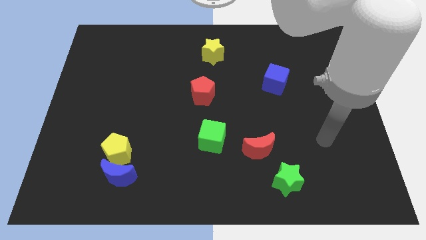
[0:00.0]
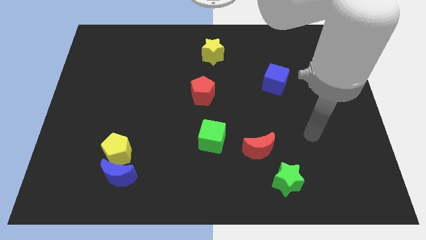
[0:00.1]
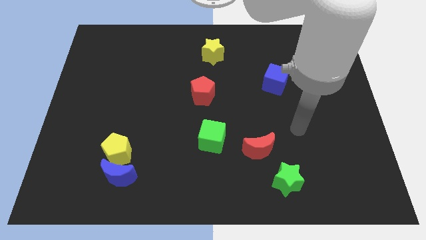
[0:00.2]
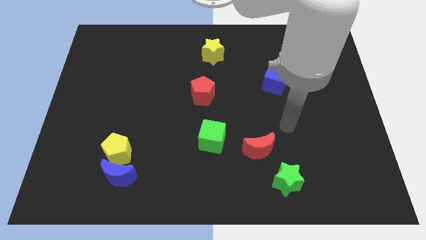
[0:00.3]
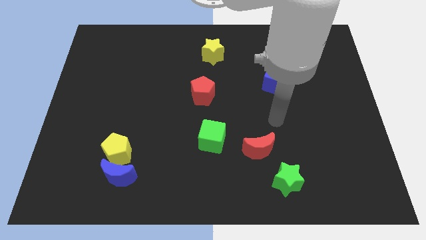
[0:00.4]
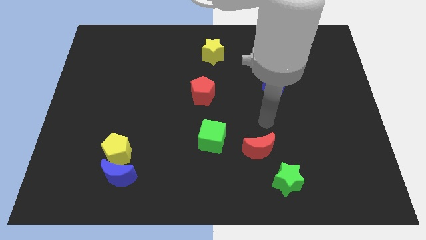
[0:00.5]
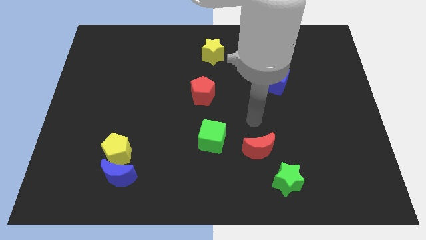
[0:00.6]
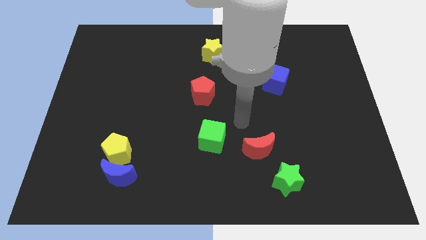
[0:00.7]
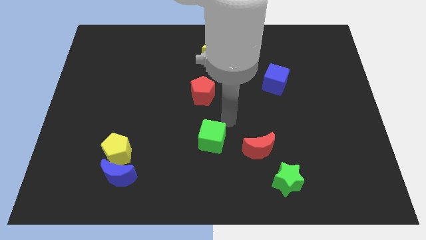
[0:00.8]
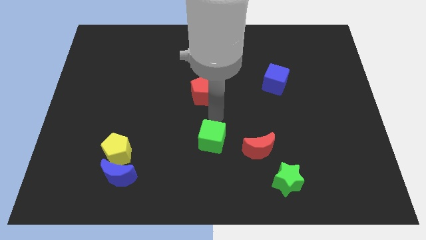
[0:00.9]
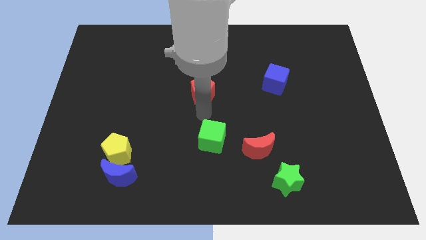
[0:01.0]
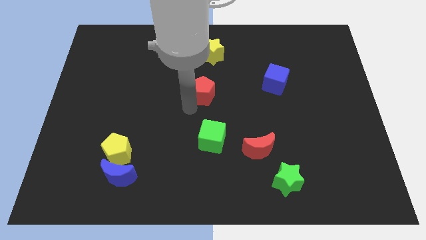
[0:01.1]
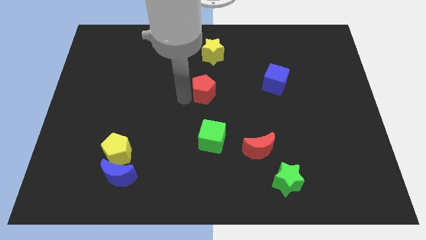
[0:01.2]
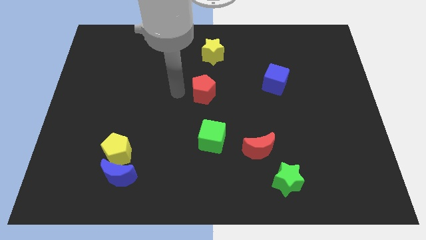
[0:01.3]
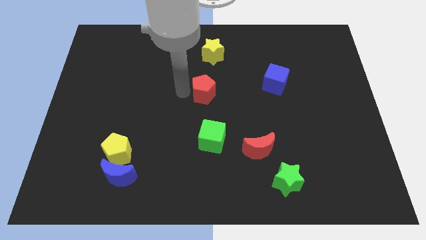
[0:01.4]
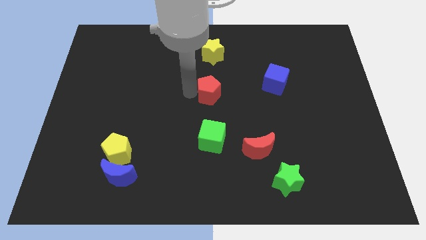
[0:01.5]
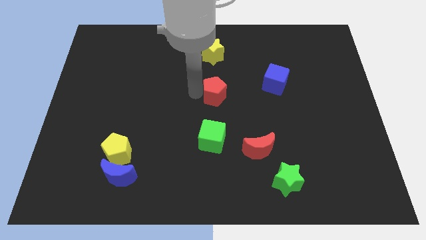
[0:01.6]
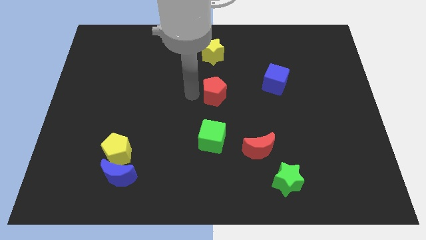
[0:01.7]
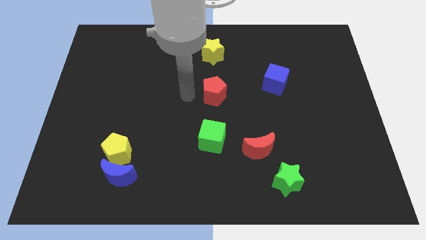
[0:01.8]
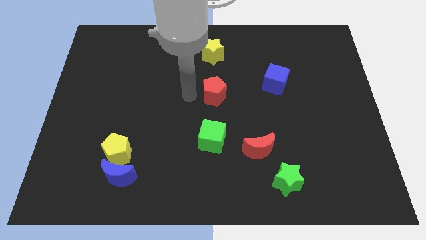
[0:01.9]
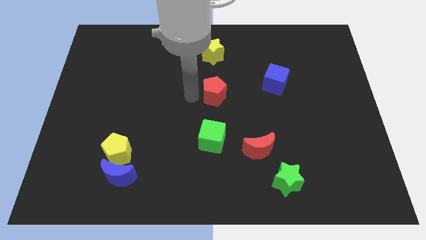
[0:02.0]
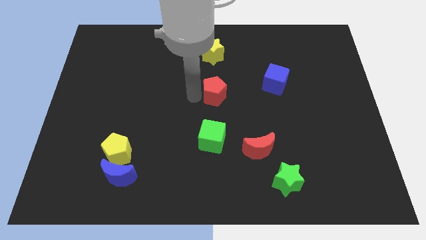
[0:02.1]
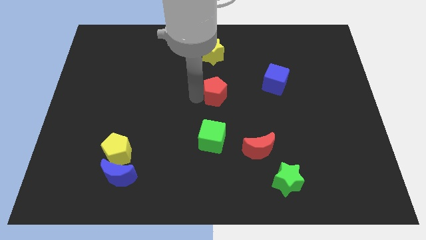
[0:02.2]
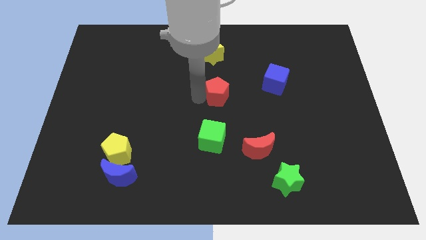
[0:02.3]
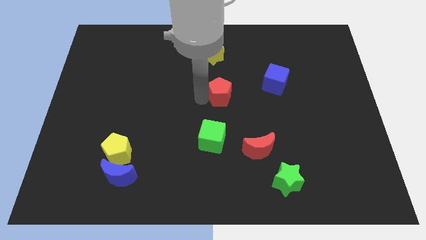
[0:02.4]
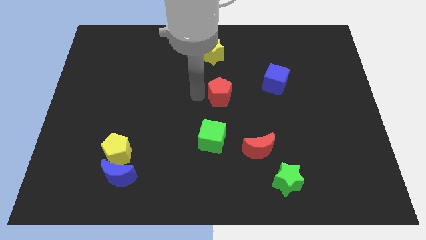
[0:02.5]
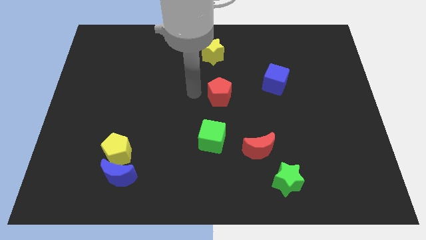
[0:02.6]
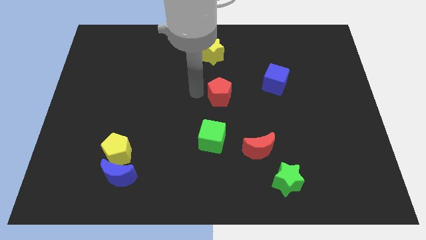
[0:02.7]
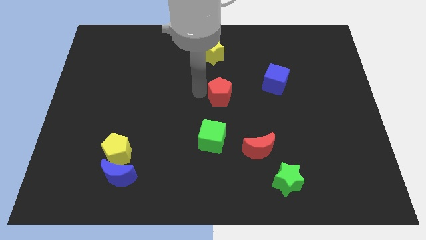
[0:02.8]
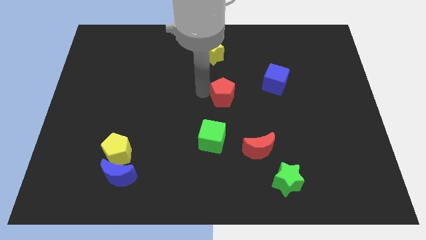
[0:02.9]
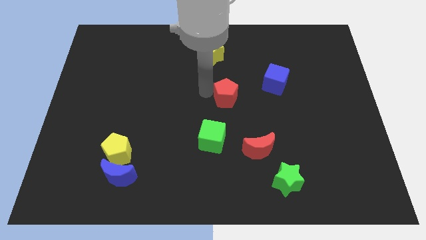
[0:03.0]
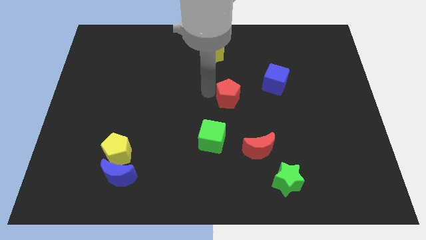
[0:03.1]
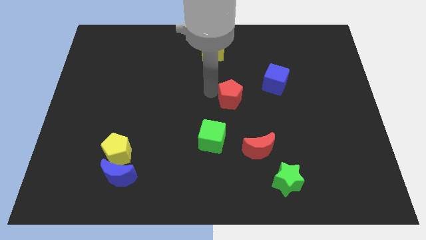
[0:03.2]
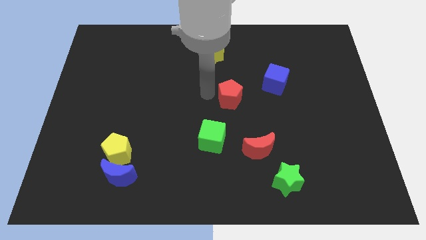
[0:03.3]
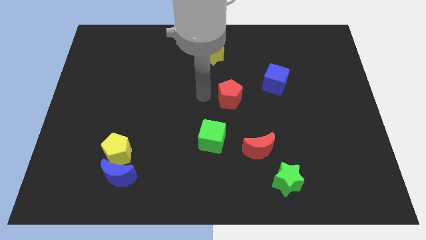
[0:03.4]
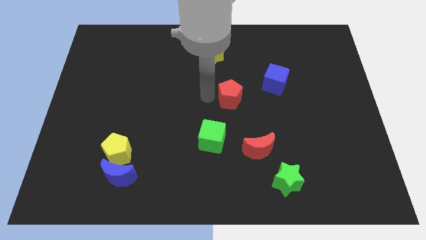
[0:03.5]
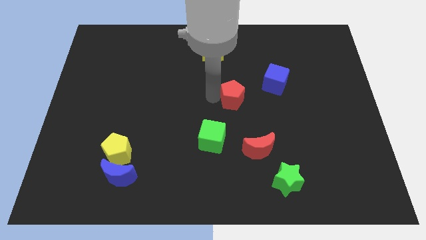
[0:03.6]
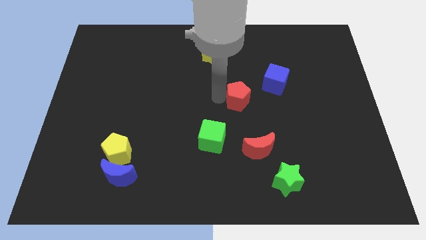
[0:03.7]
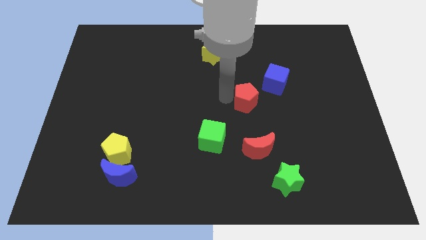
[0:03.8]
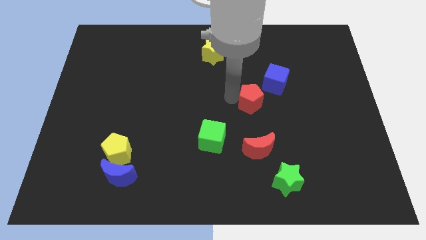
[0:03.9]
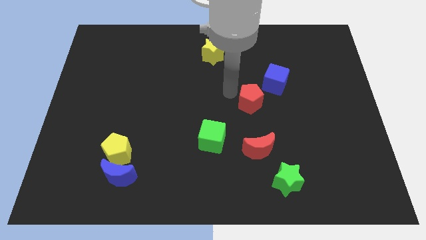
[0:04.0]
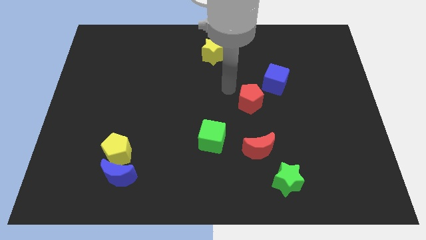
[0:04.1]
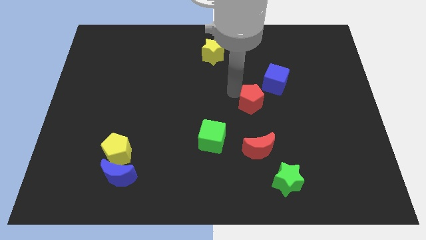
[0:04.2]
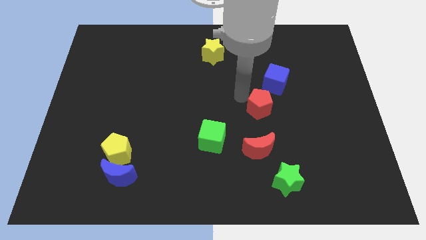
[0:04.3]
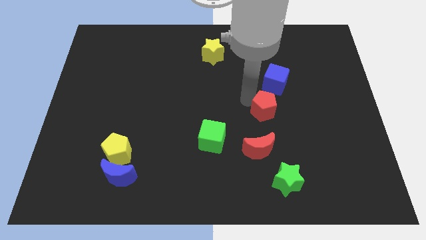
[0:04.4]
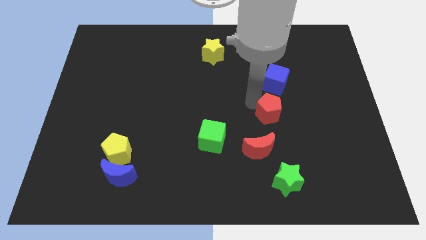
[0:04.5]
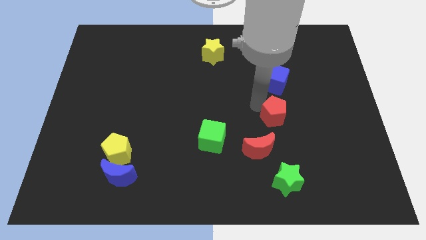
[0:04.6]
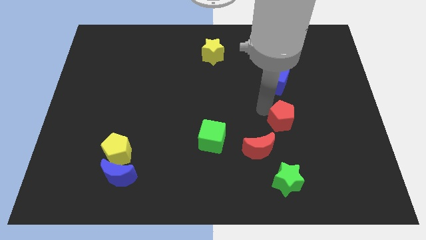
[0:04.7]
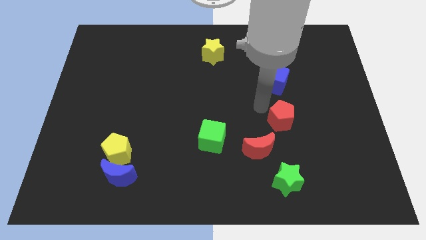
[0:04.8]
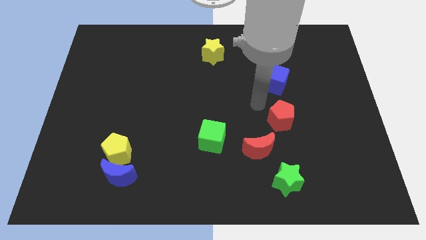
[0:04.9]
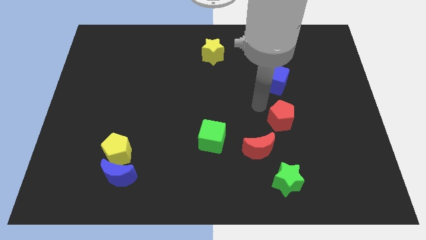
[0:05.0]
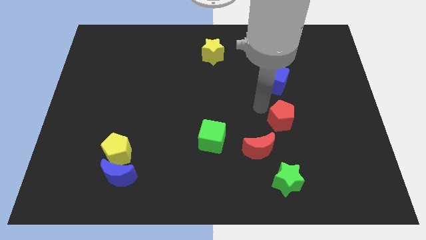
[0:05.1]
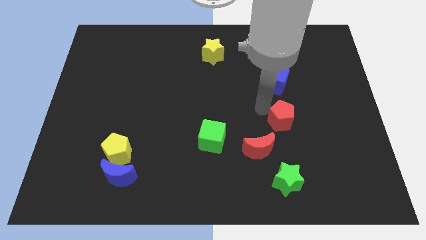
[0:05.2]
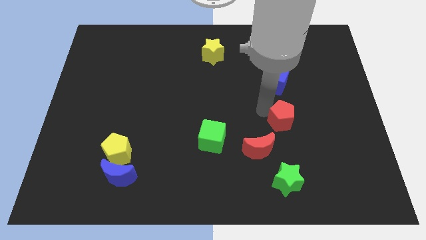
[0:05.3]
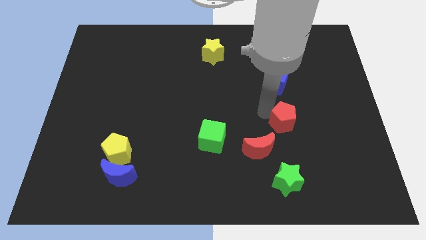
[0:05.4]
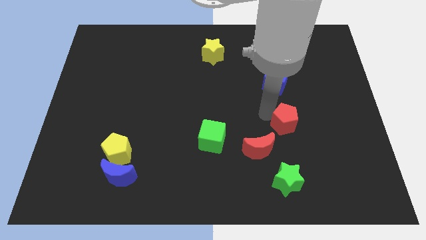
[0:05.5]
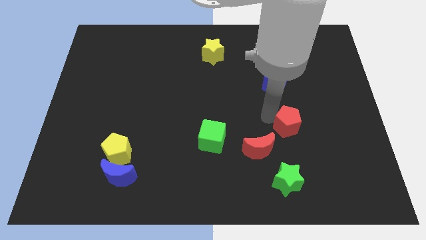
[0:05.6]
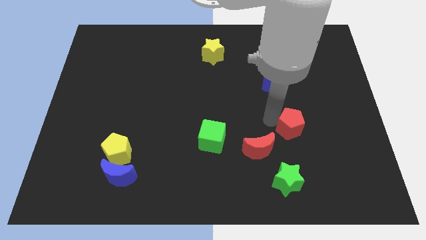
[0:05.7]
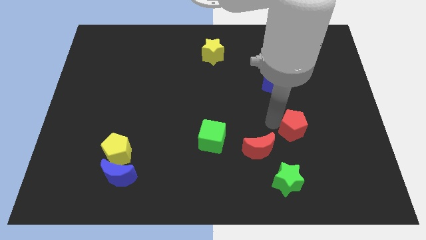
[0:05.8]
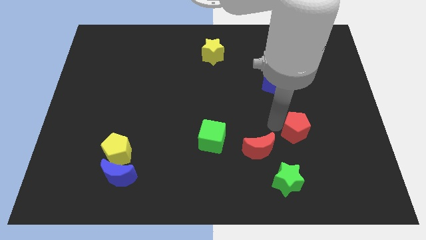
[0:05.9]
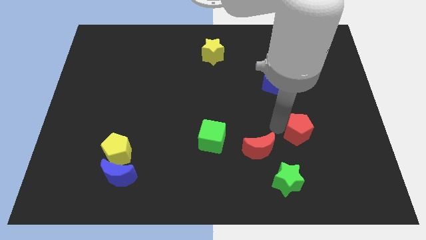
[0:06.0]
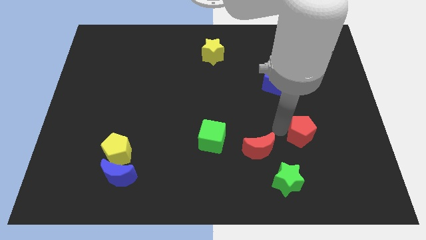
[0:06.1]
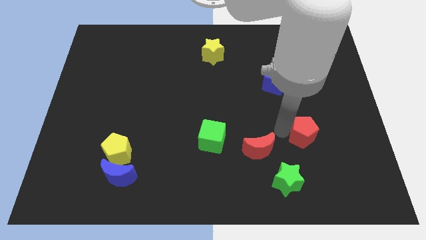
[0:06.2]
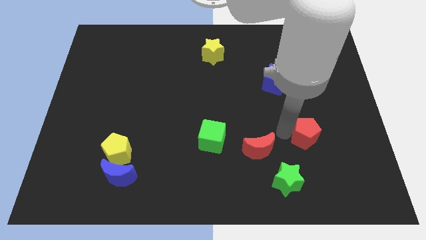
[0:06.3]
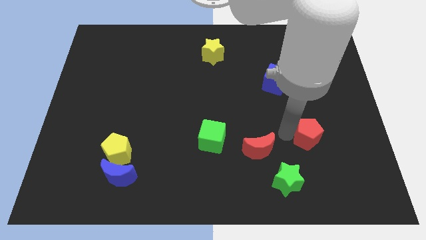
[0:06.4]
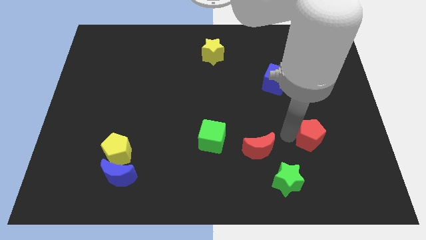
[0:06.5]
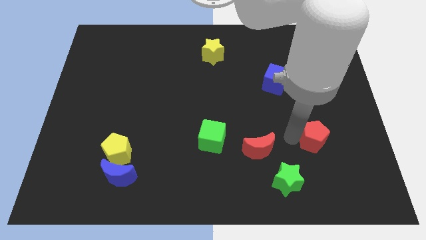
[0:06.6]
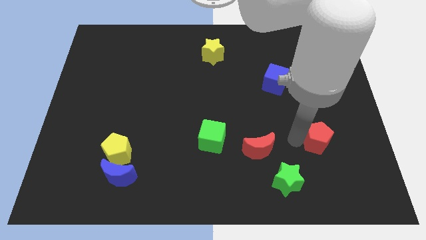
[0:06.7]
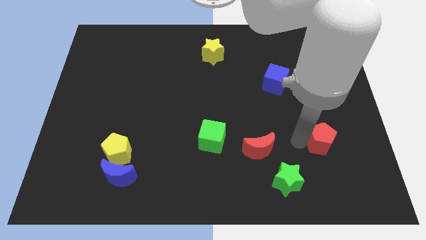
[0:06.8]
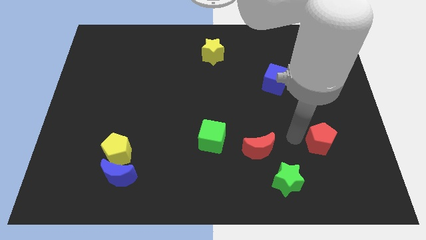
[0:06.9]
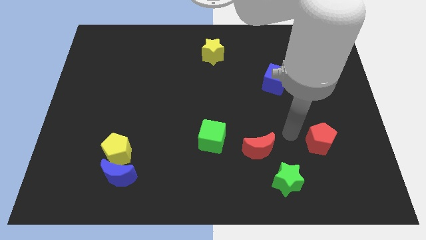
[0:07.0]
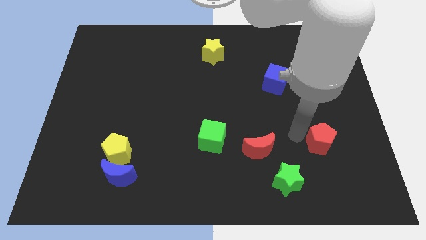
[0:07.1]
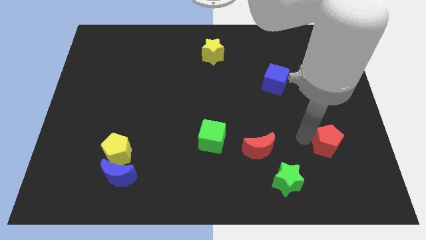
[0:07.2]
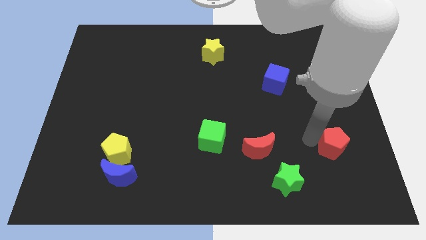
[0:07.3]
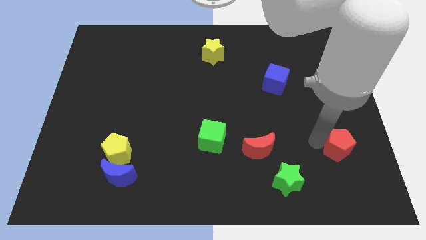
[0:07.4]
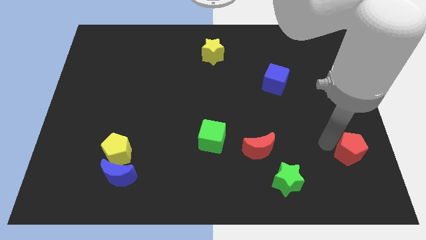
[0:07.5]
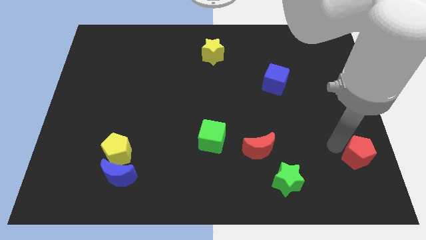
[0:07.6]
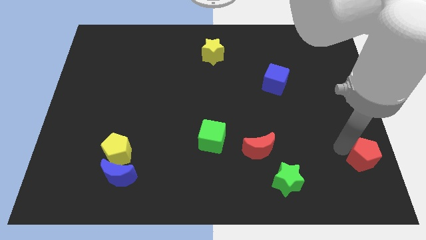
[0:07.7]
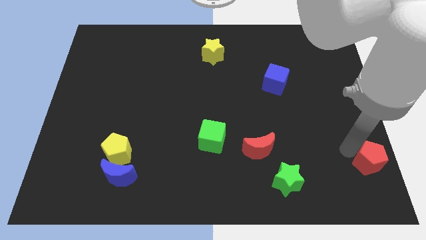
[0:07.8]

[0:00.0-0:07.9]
push the red pentagon to the bottom right of the board
